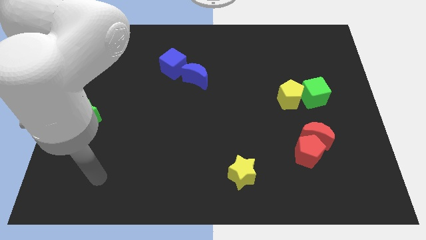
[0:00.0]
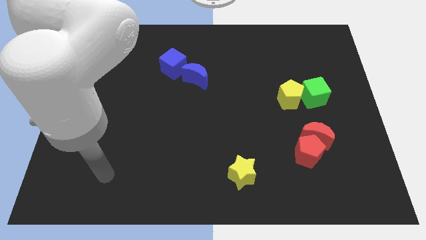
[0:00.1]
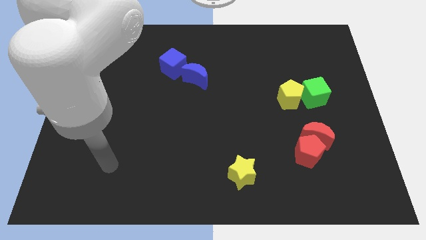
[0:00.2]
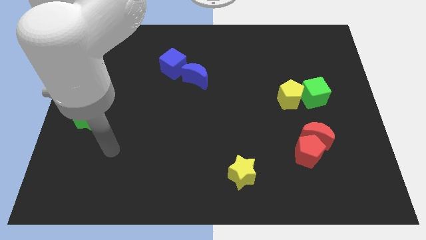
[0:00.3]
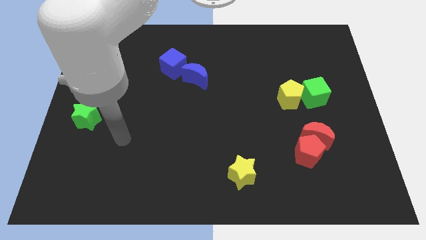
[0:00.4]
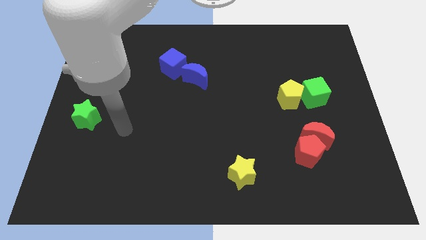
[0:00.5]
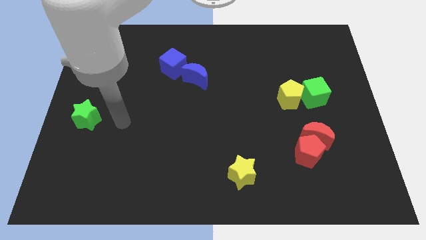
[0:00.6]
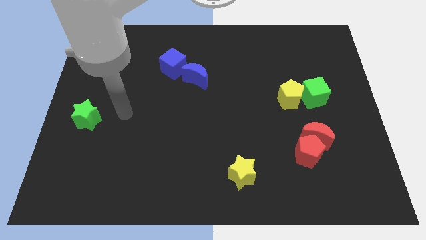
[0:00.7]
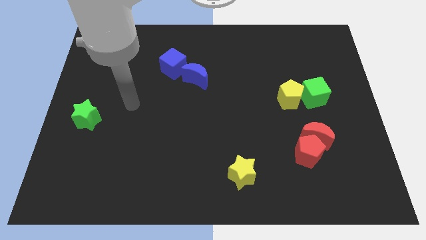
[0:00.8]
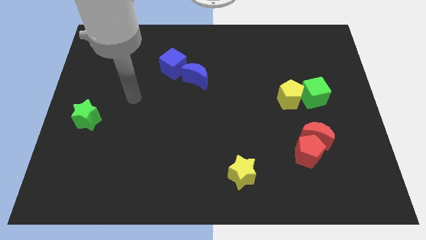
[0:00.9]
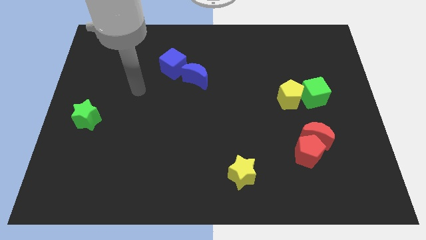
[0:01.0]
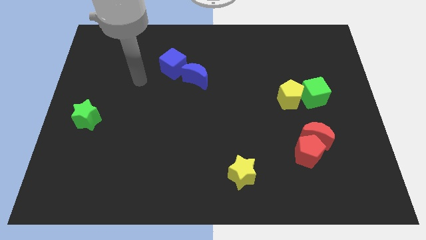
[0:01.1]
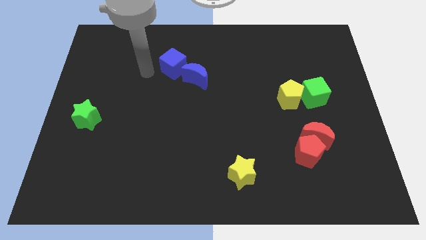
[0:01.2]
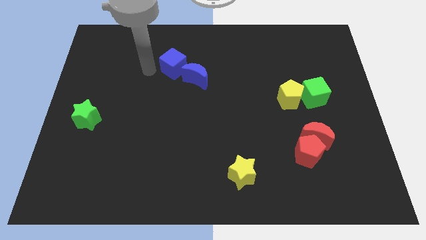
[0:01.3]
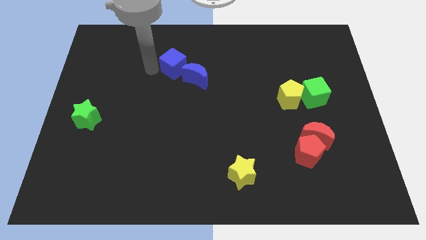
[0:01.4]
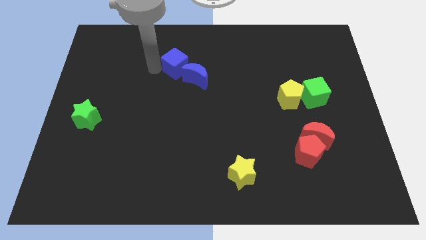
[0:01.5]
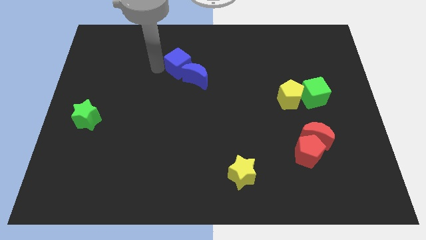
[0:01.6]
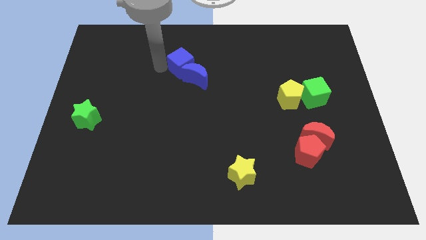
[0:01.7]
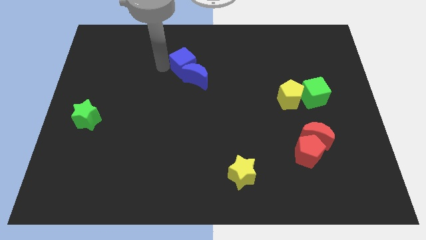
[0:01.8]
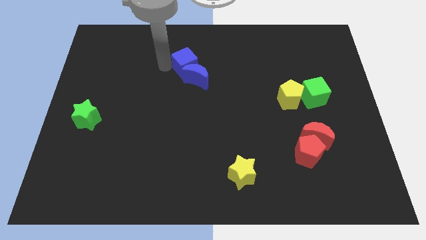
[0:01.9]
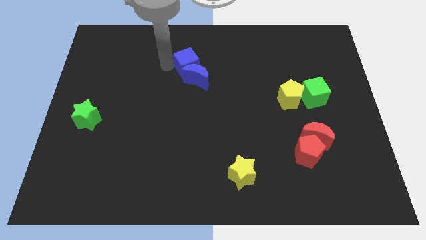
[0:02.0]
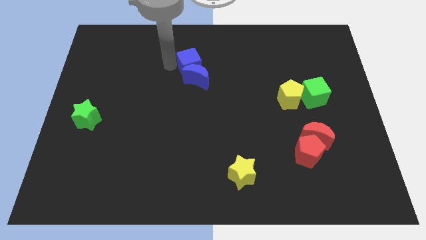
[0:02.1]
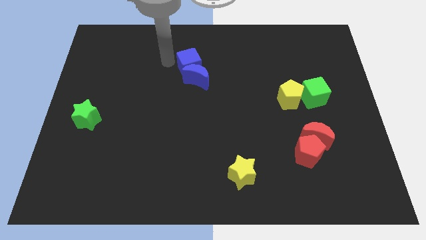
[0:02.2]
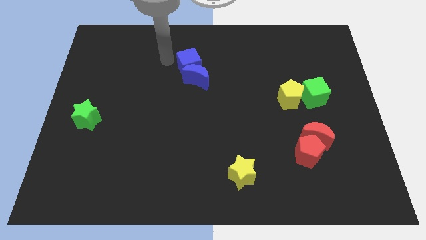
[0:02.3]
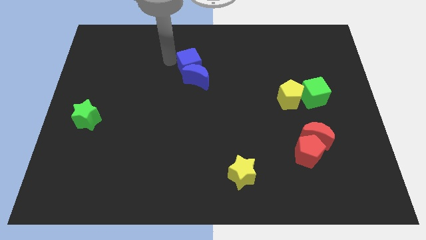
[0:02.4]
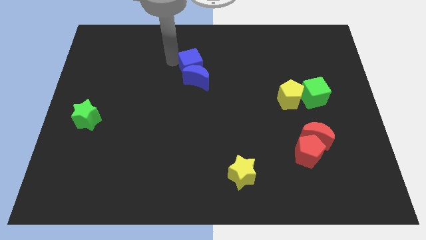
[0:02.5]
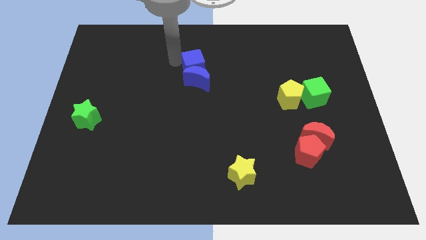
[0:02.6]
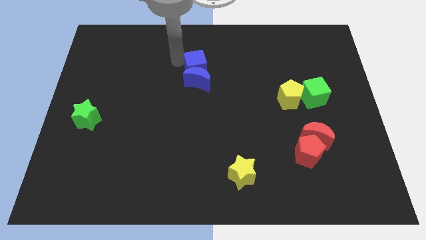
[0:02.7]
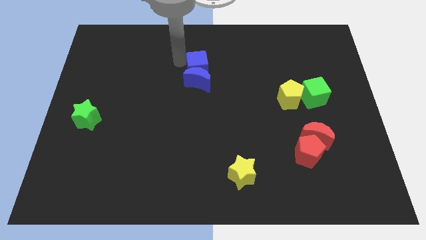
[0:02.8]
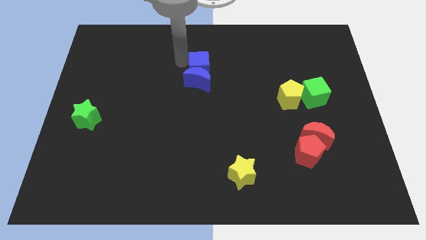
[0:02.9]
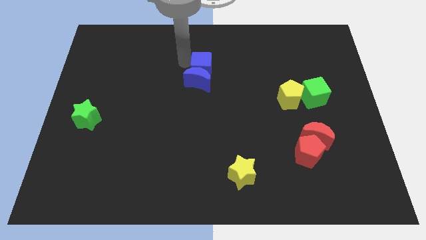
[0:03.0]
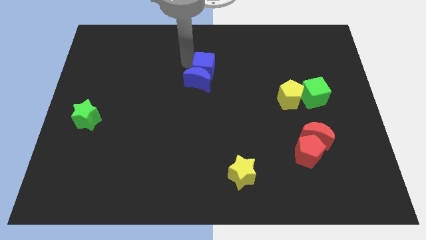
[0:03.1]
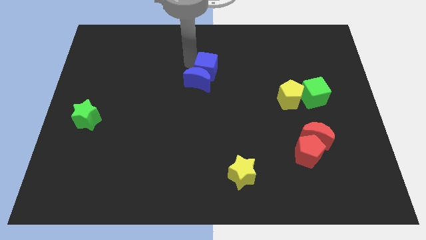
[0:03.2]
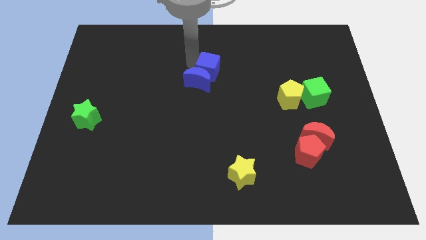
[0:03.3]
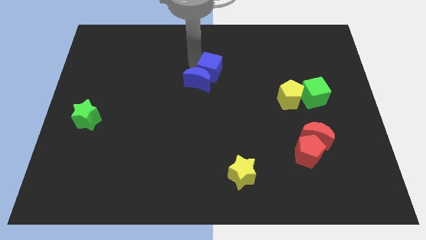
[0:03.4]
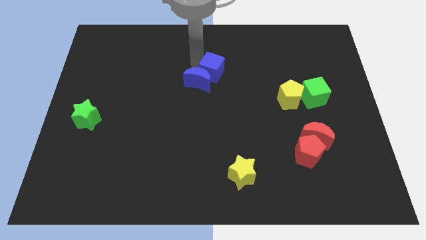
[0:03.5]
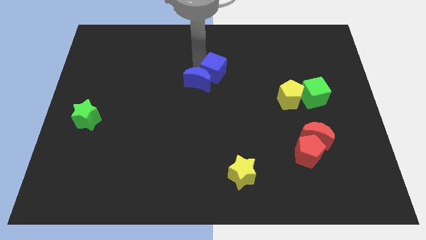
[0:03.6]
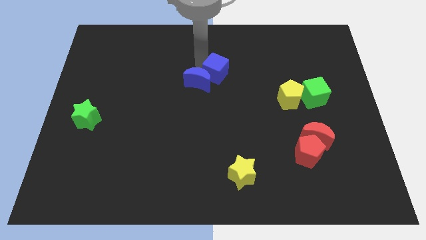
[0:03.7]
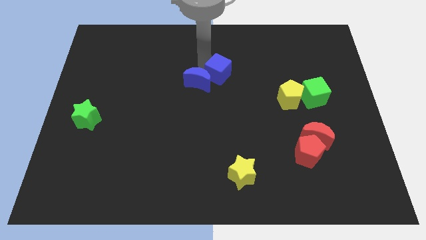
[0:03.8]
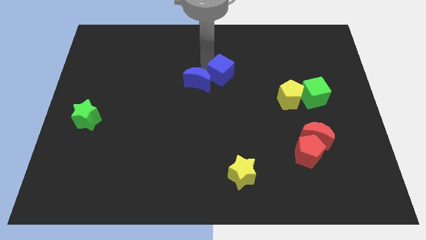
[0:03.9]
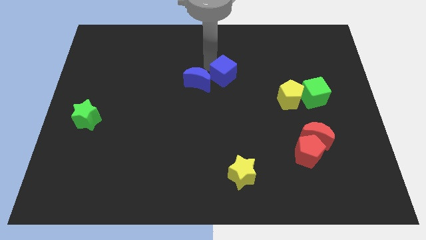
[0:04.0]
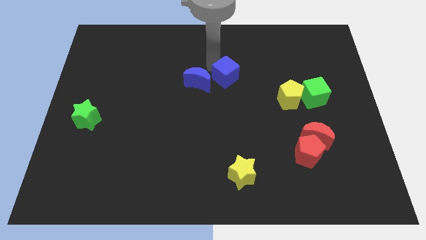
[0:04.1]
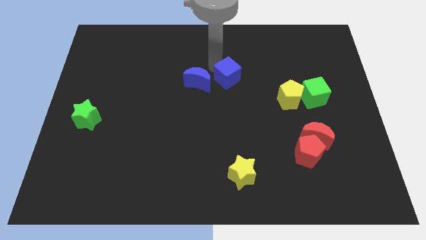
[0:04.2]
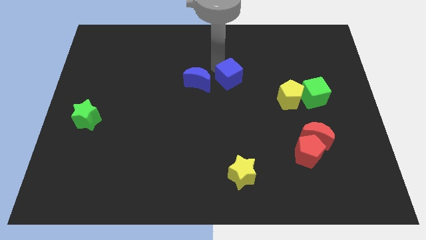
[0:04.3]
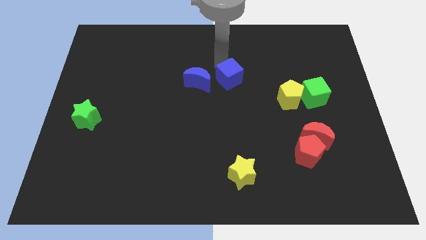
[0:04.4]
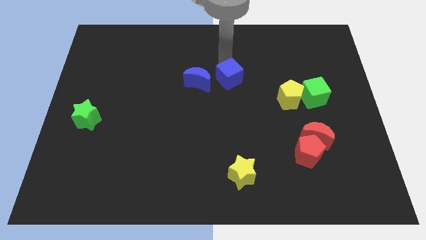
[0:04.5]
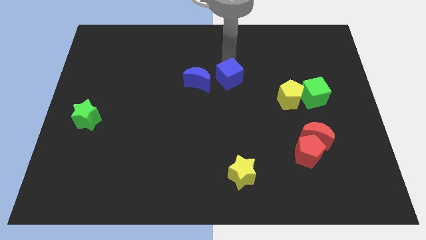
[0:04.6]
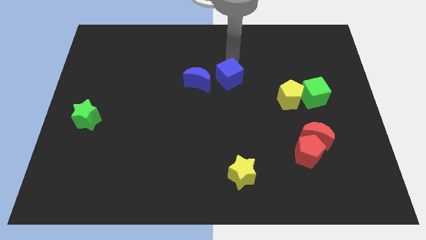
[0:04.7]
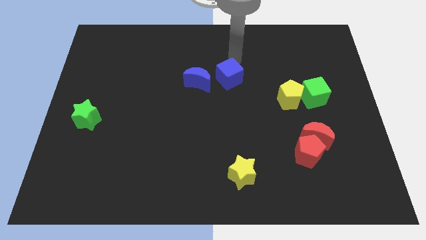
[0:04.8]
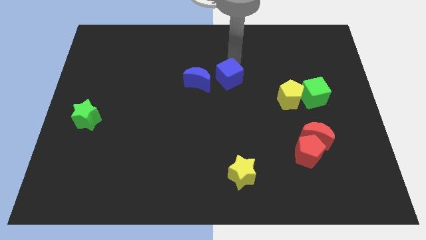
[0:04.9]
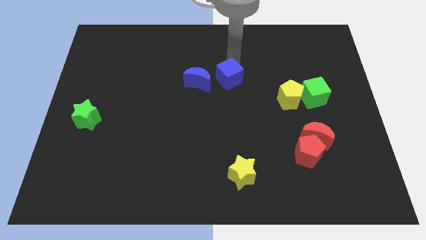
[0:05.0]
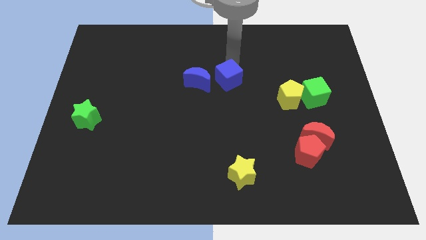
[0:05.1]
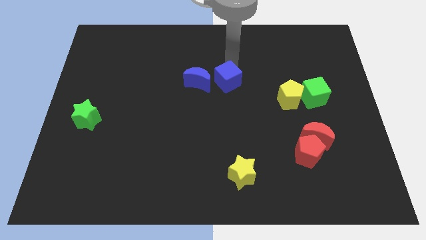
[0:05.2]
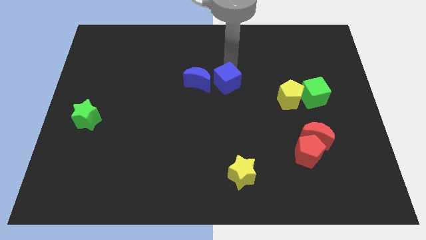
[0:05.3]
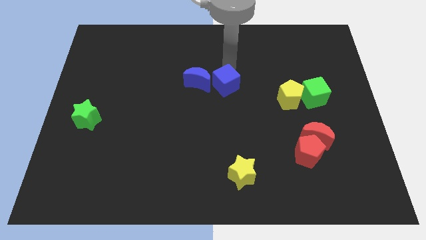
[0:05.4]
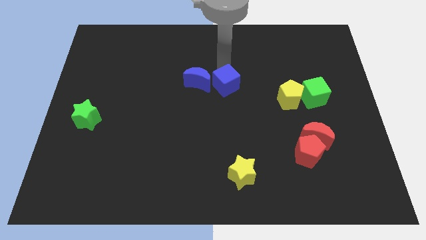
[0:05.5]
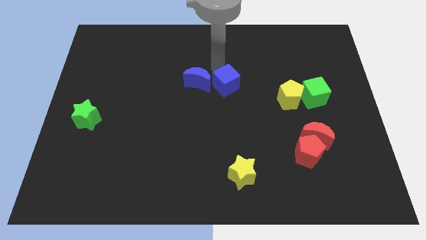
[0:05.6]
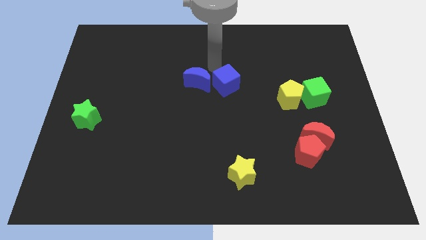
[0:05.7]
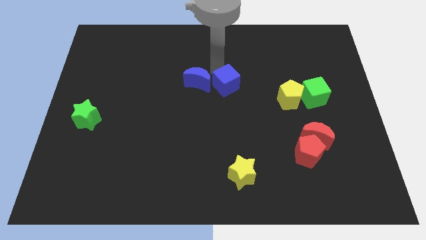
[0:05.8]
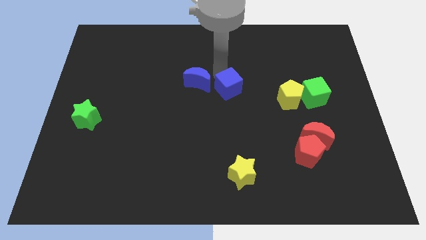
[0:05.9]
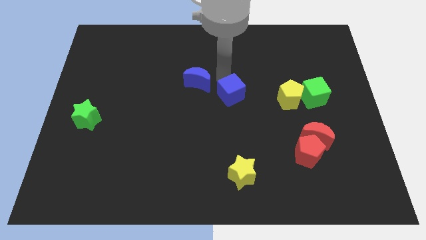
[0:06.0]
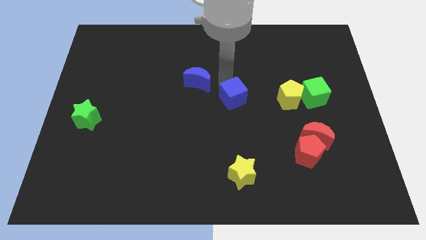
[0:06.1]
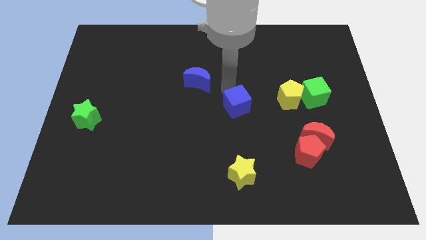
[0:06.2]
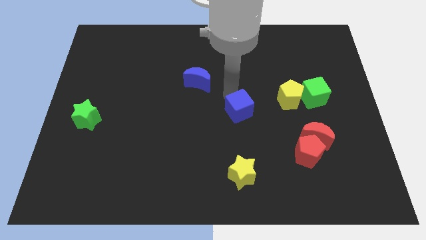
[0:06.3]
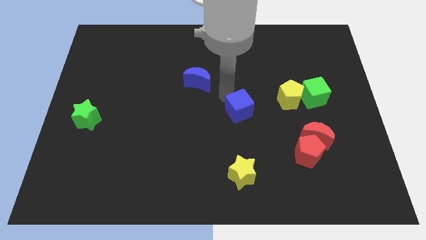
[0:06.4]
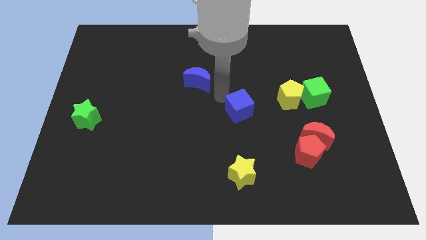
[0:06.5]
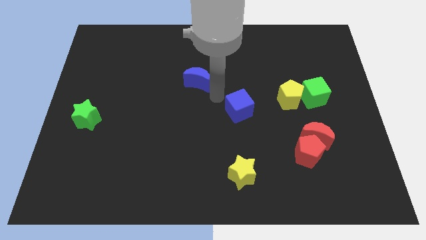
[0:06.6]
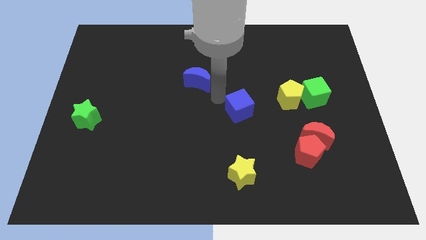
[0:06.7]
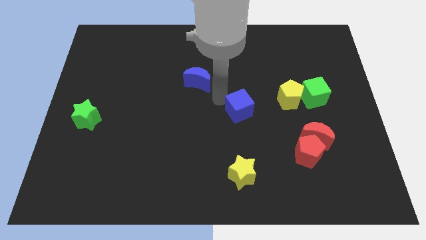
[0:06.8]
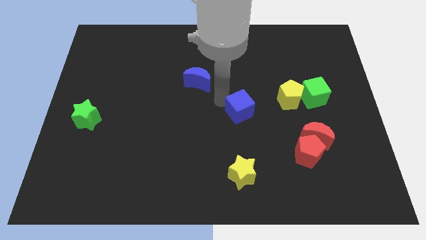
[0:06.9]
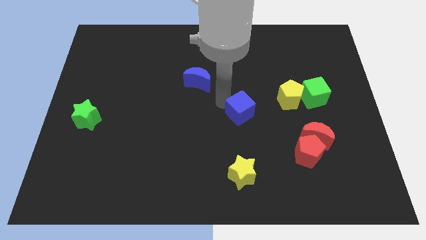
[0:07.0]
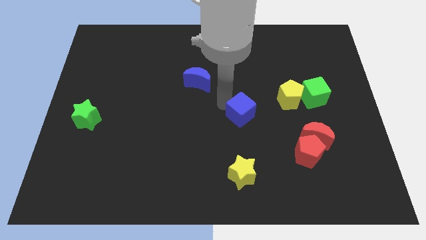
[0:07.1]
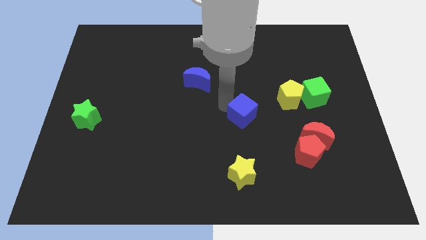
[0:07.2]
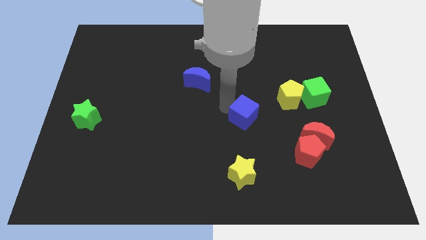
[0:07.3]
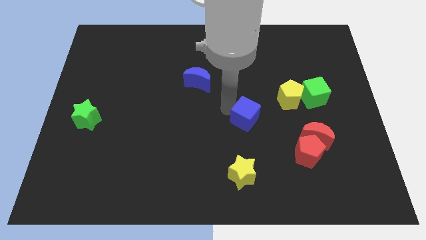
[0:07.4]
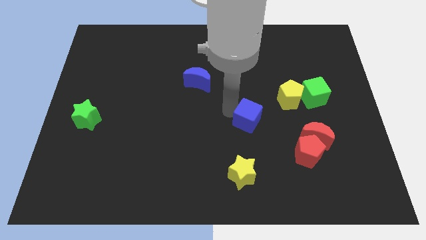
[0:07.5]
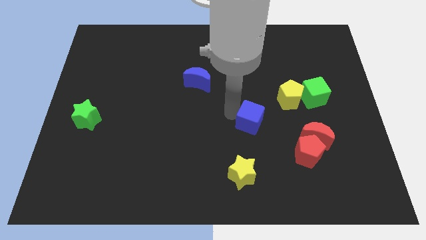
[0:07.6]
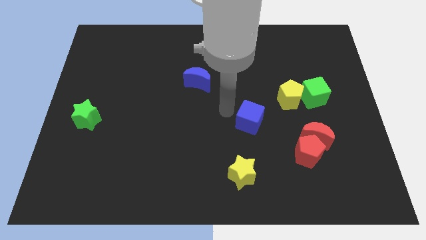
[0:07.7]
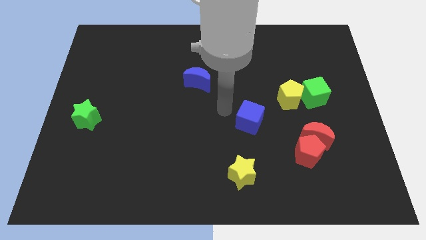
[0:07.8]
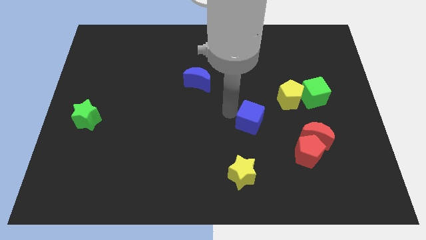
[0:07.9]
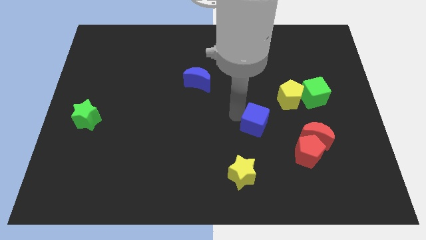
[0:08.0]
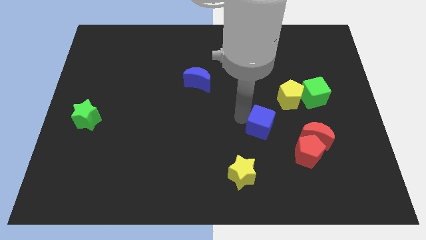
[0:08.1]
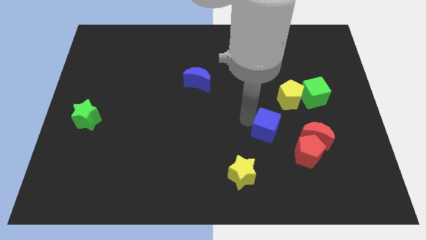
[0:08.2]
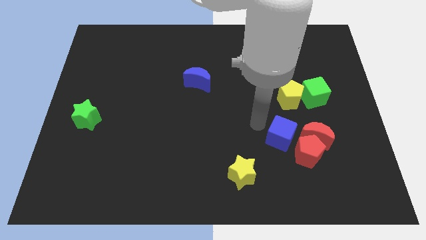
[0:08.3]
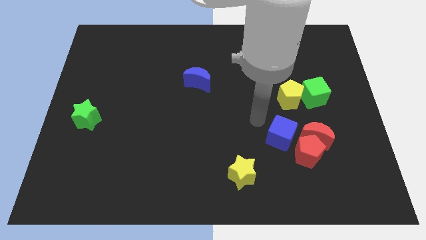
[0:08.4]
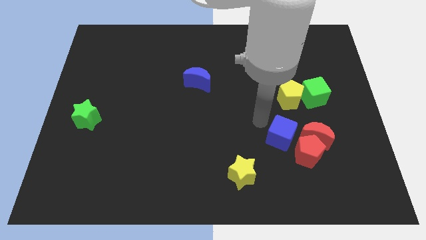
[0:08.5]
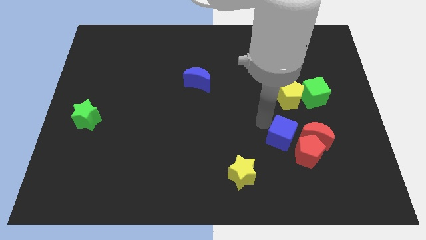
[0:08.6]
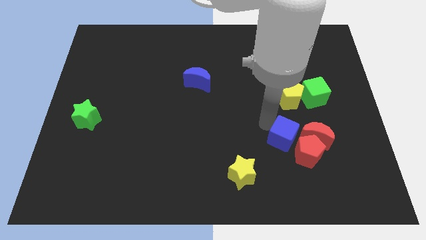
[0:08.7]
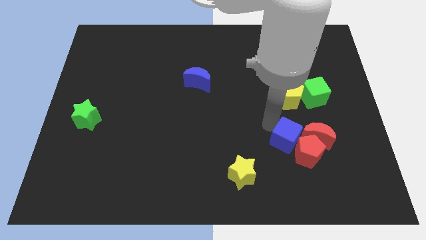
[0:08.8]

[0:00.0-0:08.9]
put the blue cube towards the red pentagon
